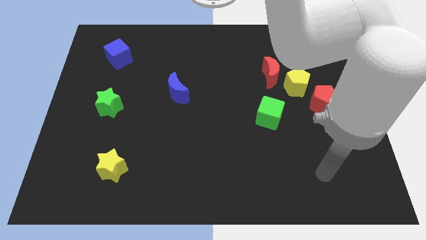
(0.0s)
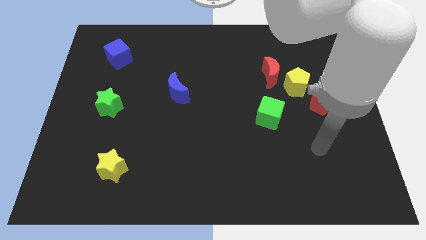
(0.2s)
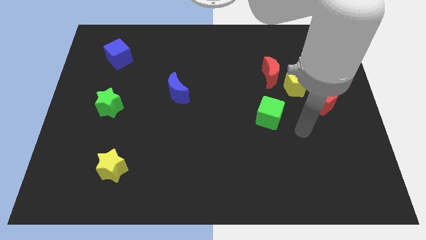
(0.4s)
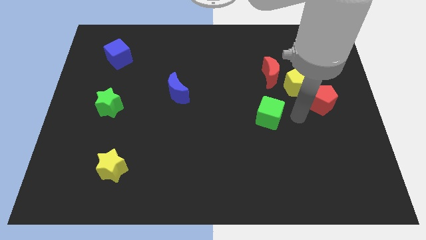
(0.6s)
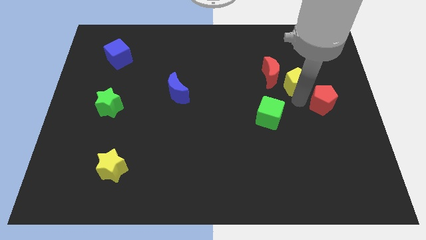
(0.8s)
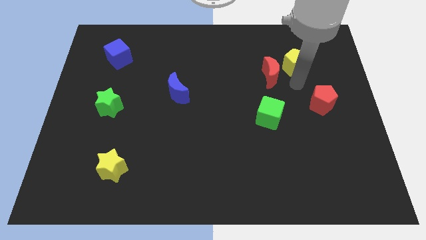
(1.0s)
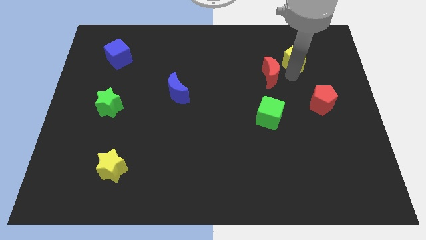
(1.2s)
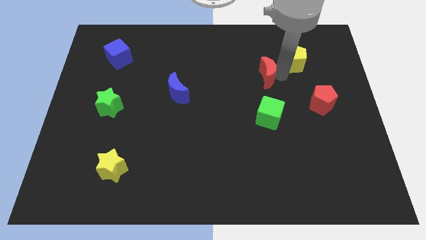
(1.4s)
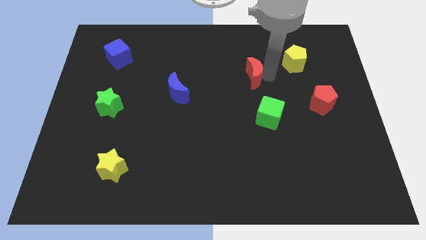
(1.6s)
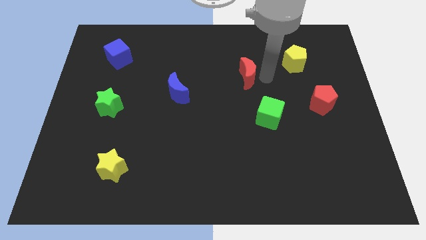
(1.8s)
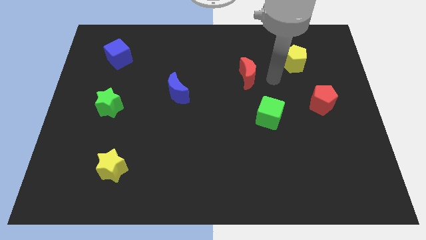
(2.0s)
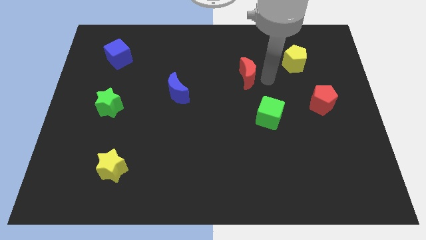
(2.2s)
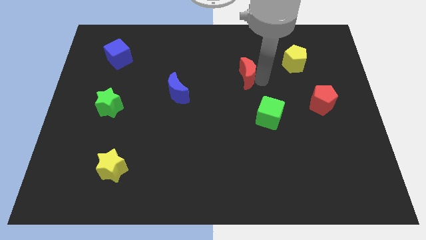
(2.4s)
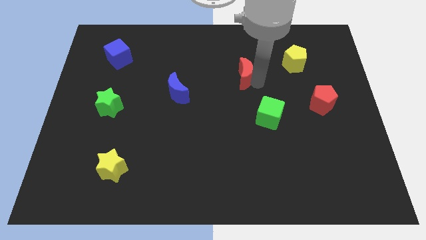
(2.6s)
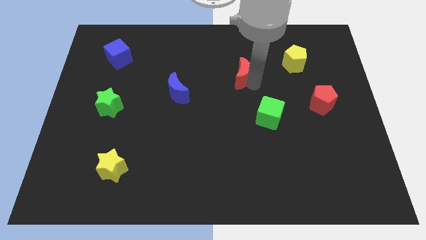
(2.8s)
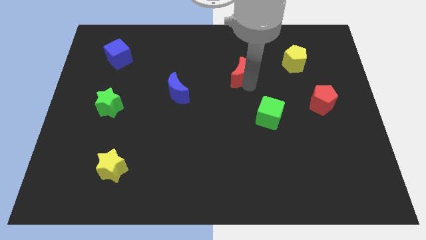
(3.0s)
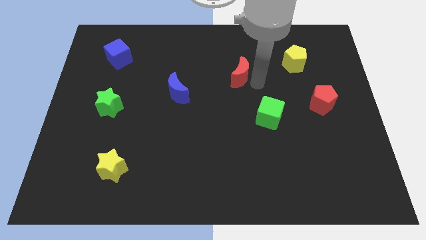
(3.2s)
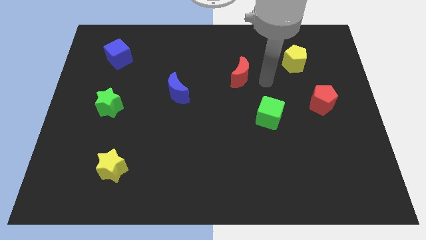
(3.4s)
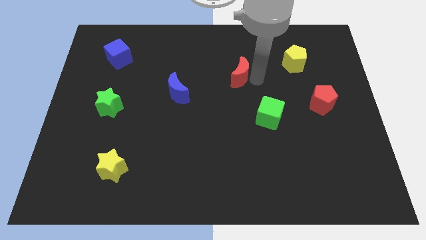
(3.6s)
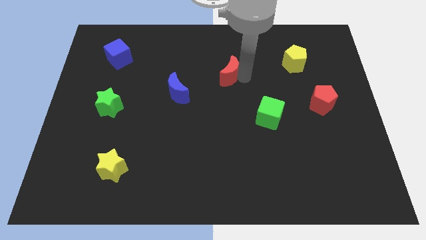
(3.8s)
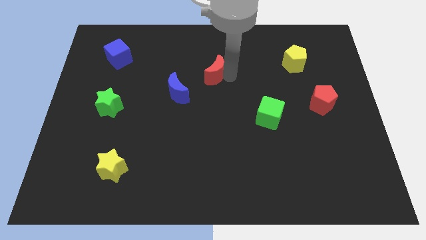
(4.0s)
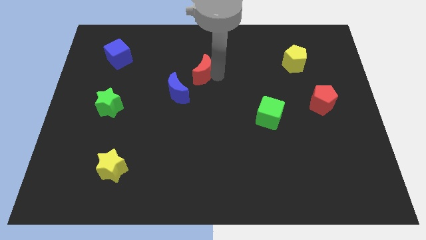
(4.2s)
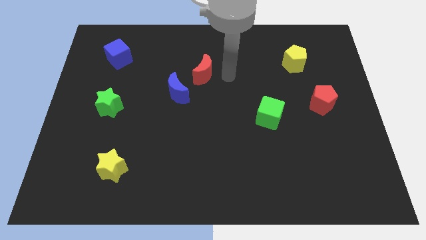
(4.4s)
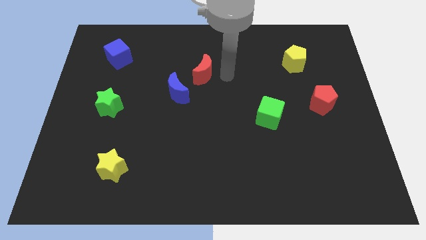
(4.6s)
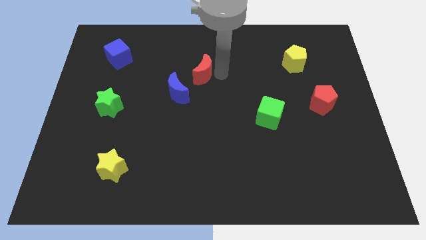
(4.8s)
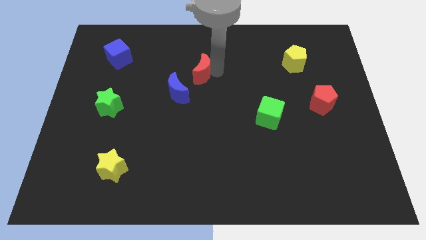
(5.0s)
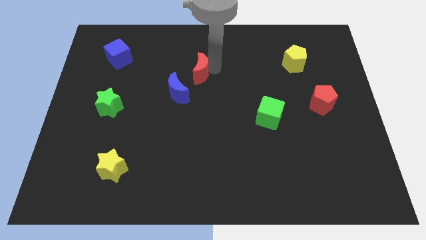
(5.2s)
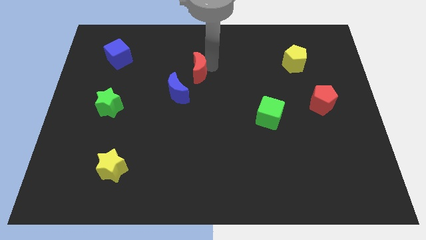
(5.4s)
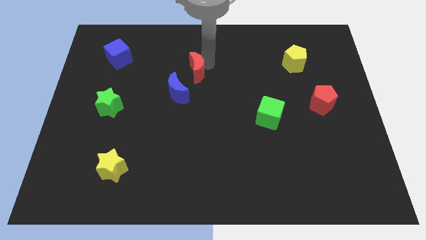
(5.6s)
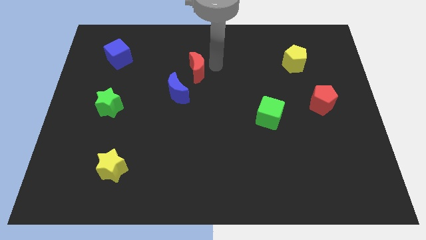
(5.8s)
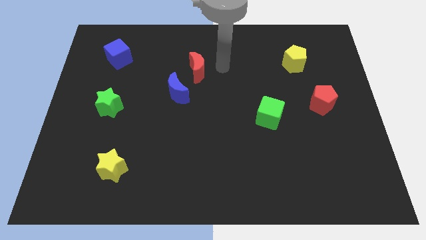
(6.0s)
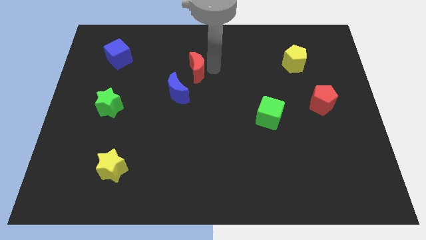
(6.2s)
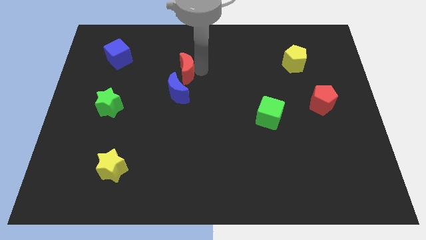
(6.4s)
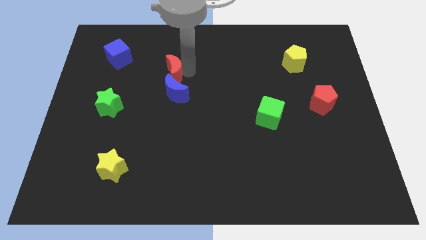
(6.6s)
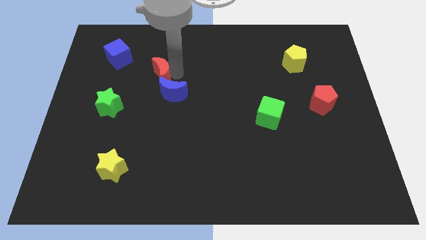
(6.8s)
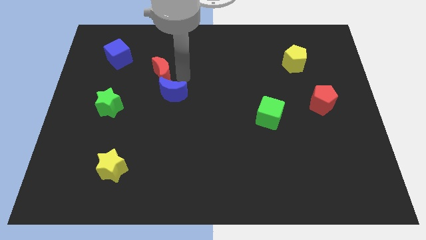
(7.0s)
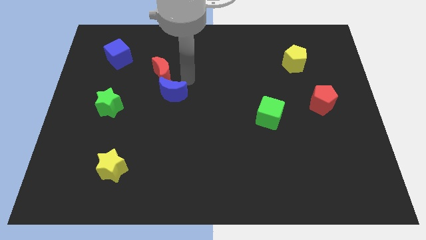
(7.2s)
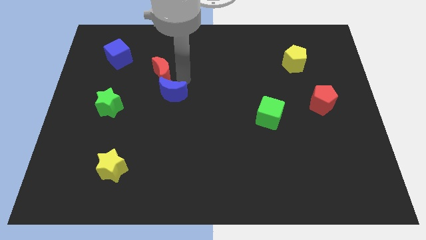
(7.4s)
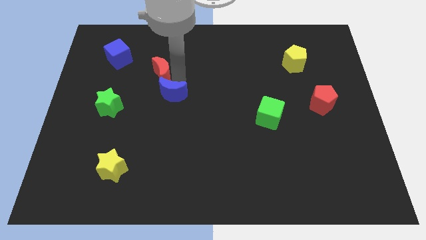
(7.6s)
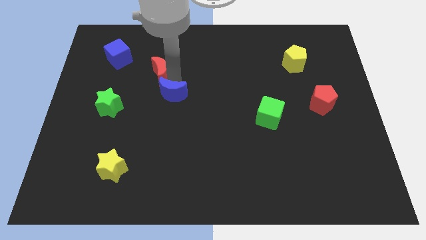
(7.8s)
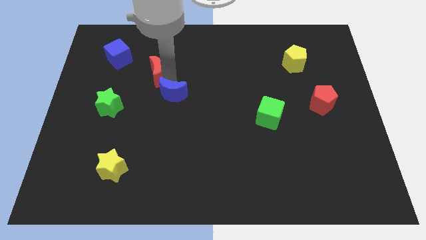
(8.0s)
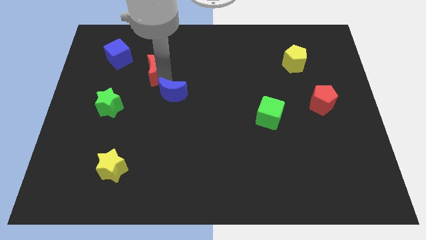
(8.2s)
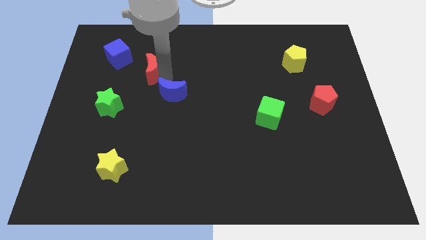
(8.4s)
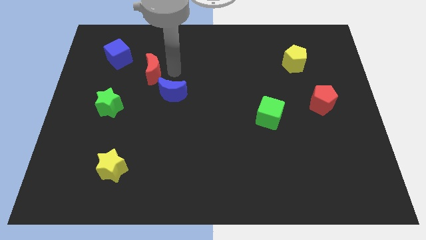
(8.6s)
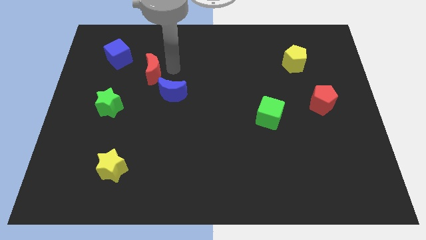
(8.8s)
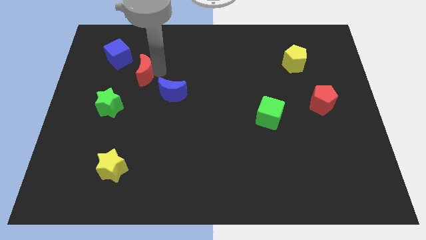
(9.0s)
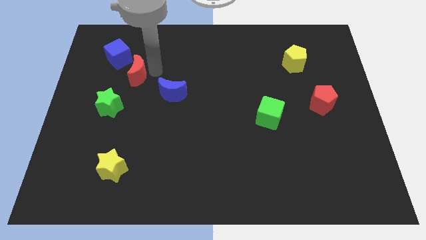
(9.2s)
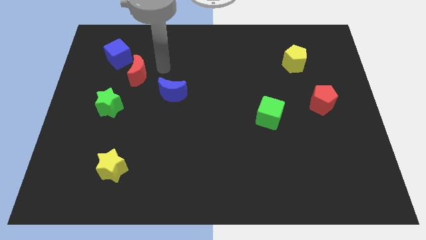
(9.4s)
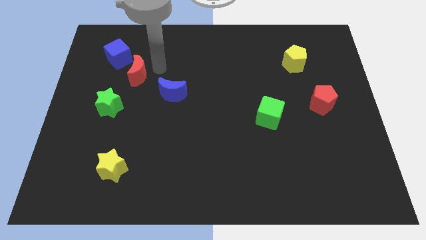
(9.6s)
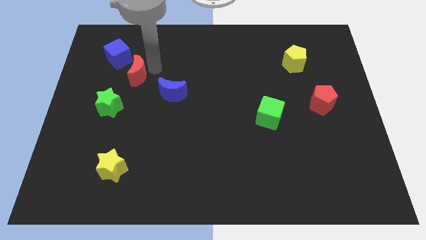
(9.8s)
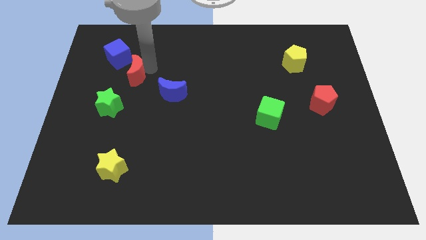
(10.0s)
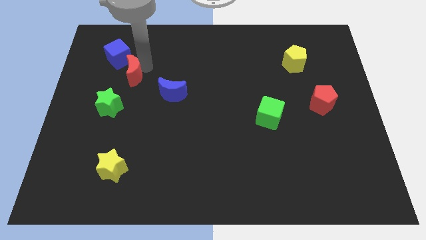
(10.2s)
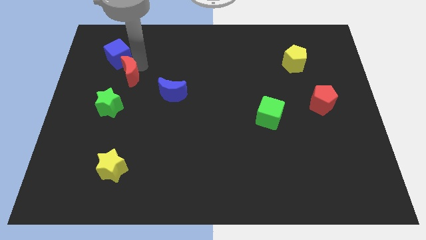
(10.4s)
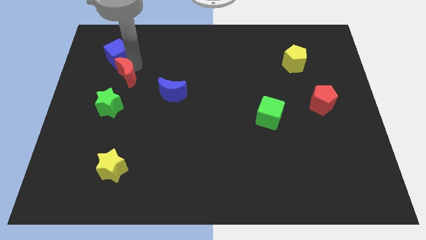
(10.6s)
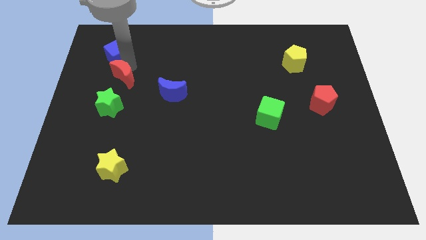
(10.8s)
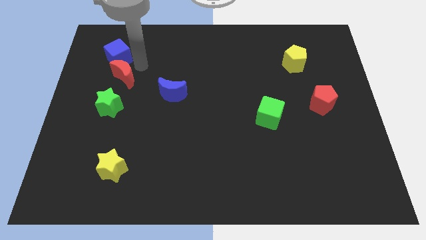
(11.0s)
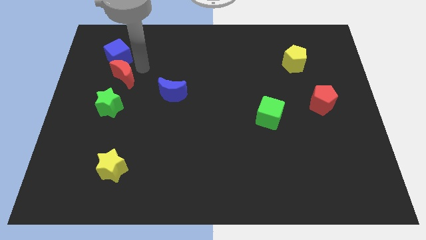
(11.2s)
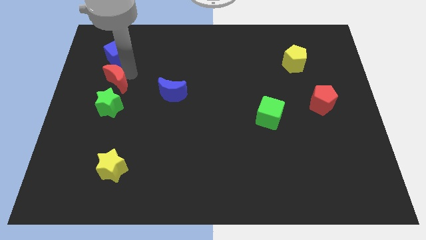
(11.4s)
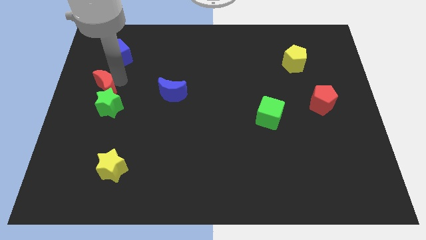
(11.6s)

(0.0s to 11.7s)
put the red moon to the left side of the board

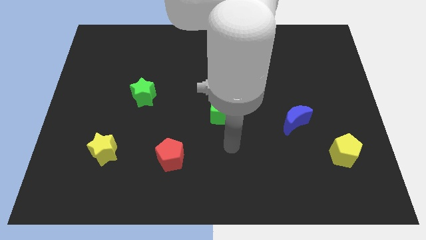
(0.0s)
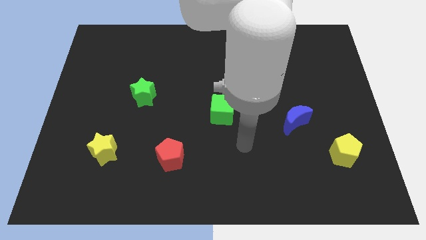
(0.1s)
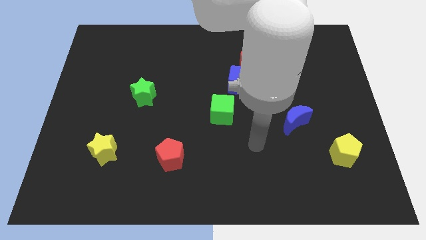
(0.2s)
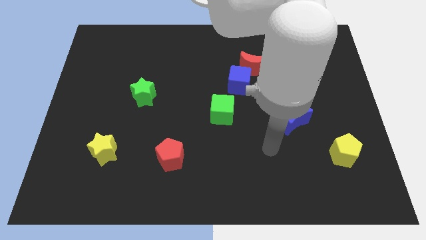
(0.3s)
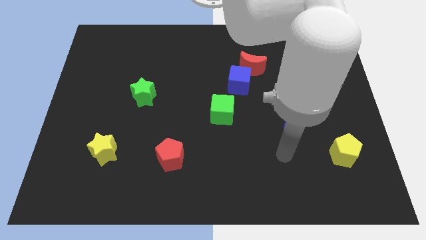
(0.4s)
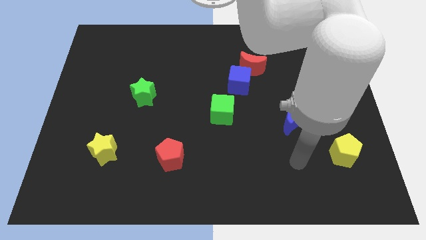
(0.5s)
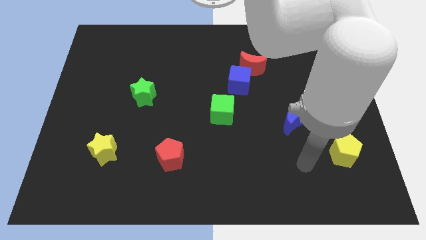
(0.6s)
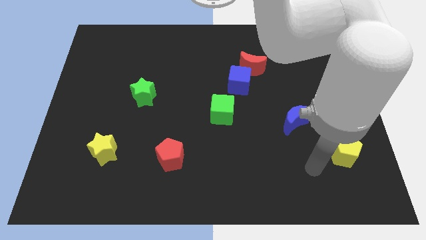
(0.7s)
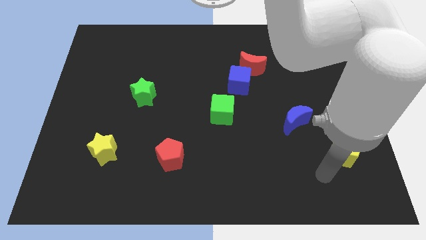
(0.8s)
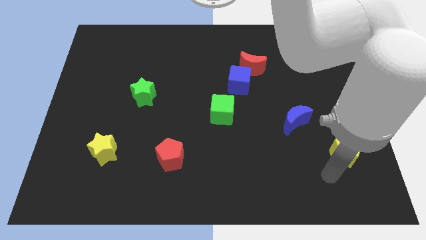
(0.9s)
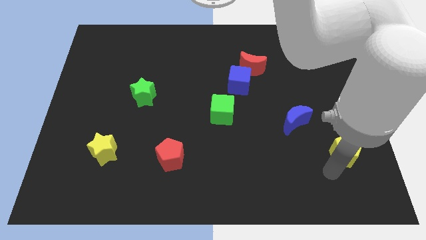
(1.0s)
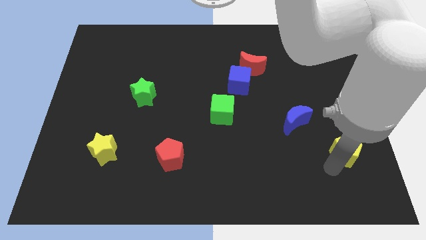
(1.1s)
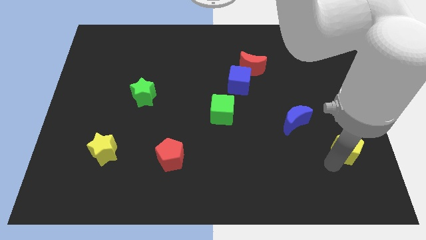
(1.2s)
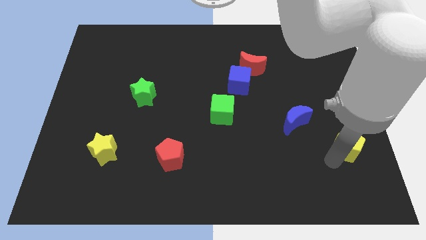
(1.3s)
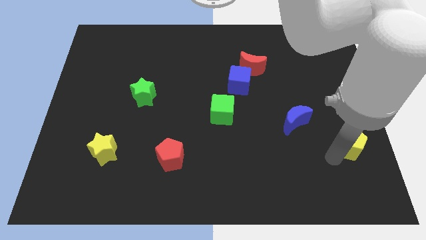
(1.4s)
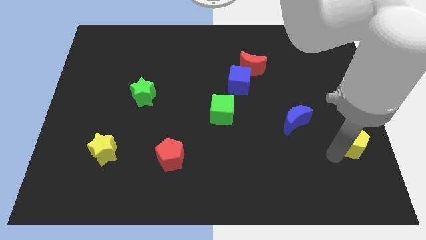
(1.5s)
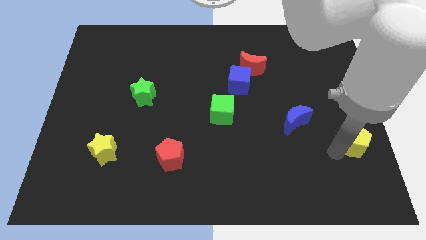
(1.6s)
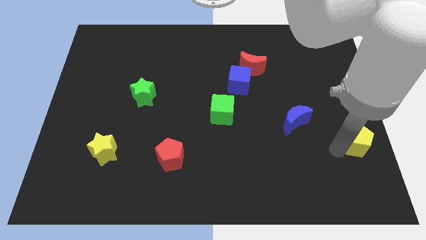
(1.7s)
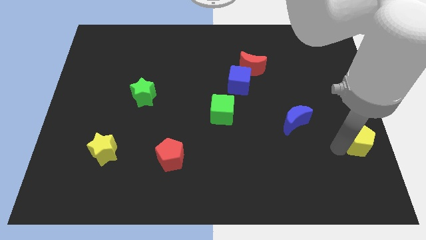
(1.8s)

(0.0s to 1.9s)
push the yellow pentagon to the right side of the board
